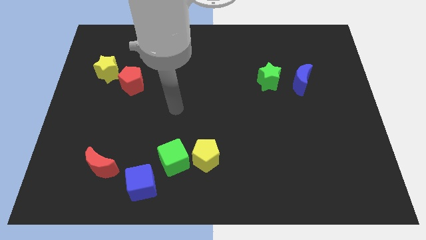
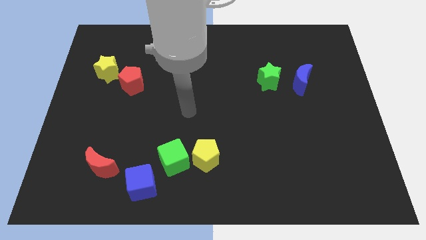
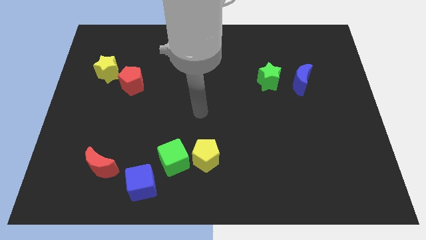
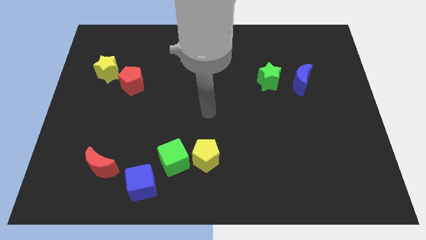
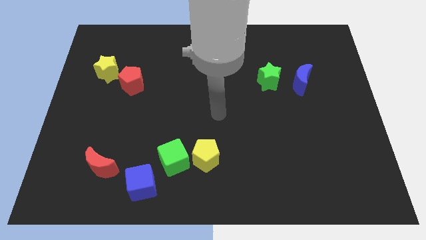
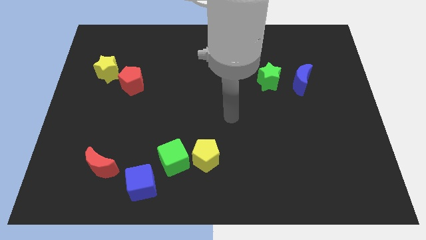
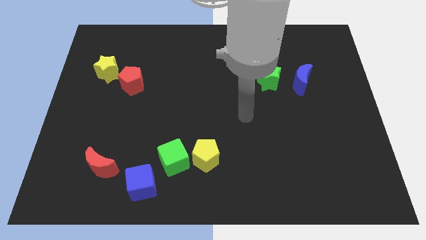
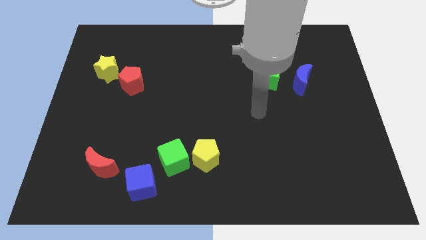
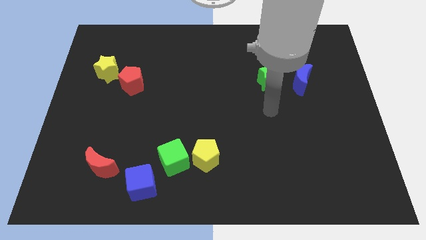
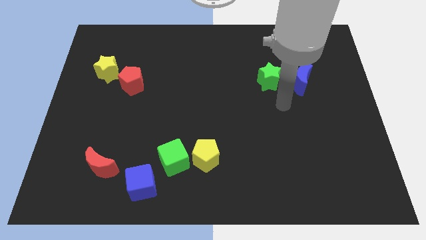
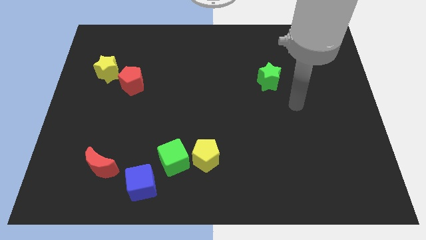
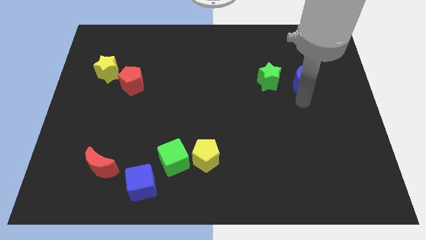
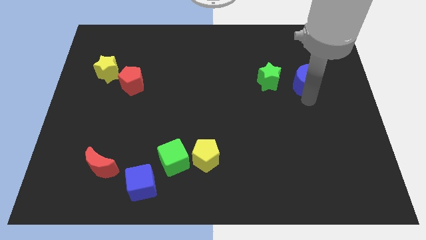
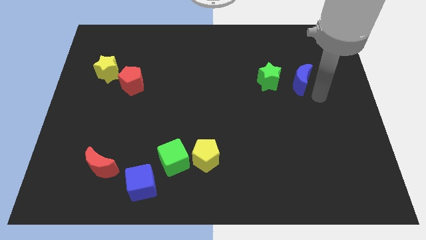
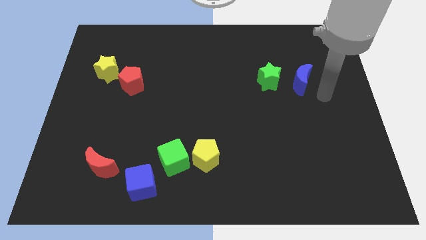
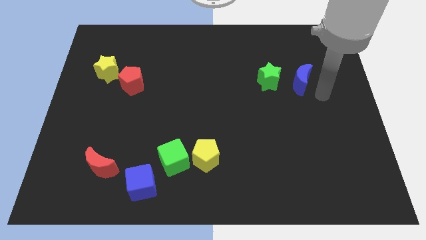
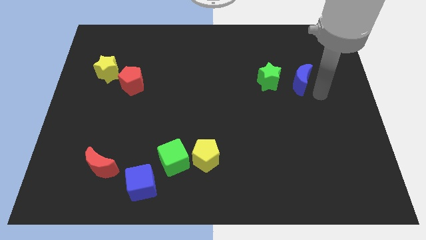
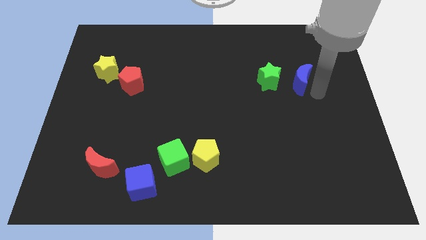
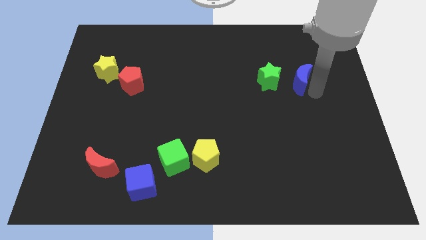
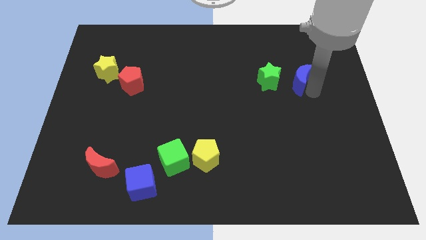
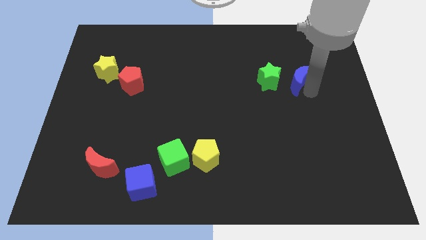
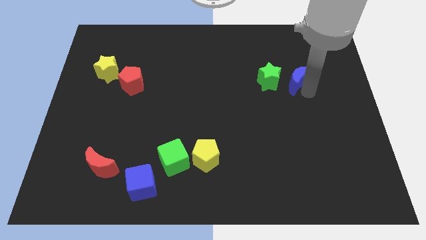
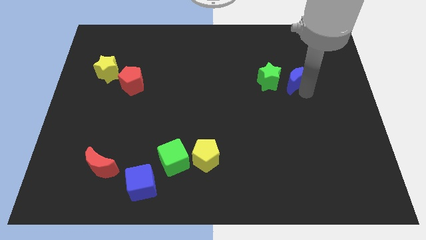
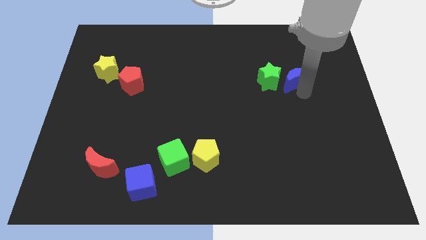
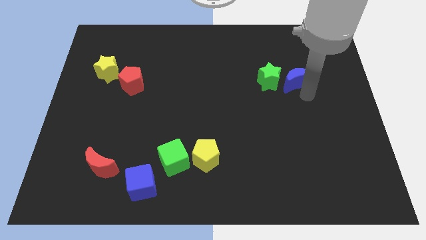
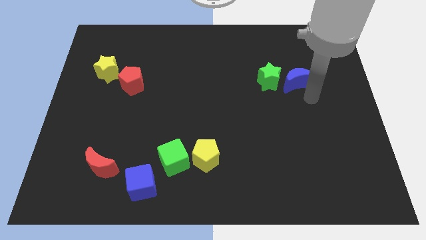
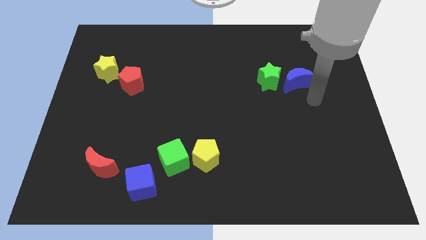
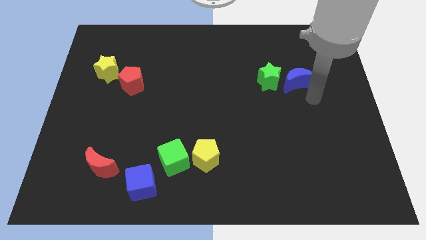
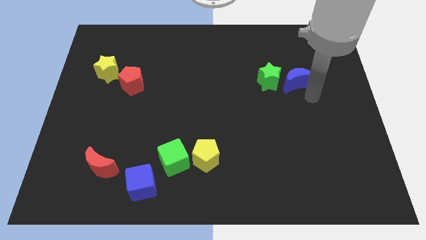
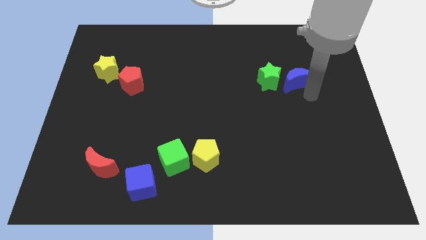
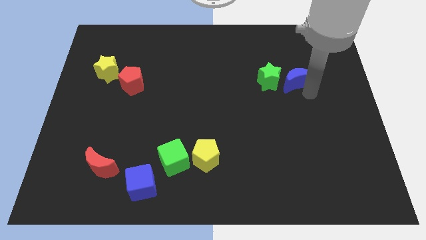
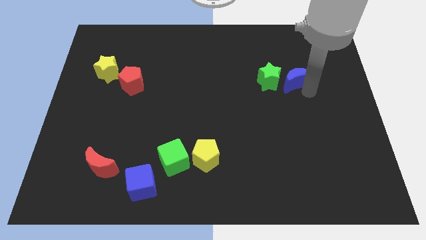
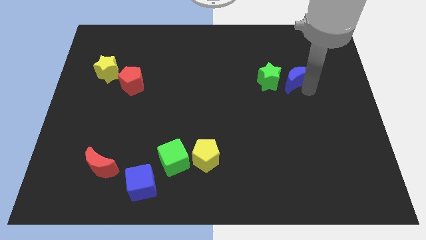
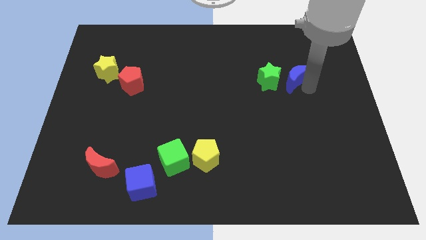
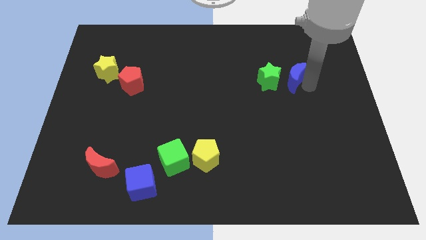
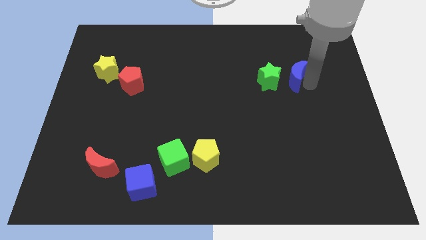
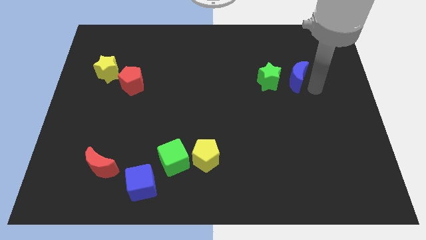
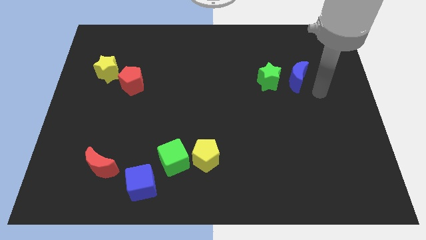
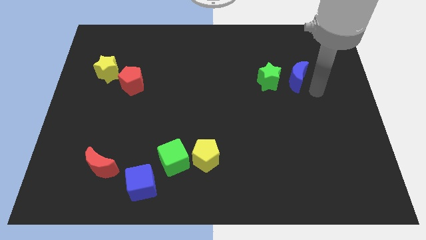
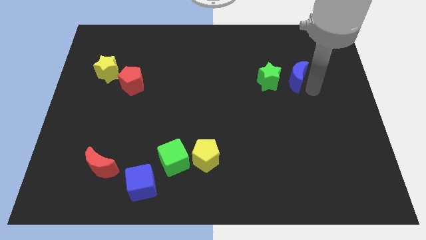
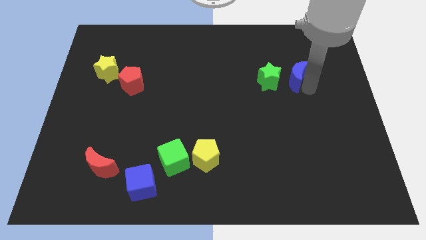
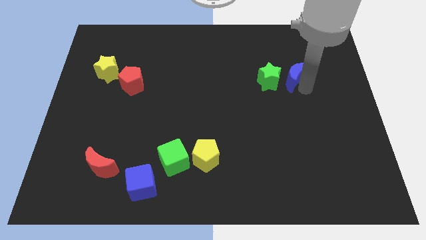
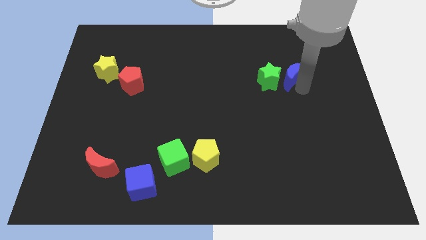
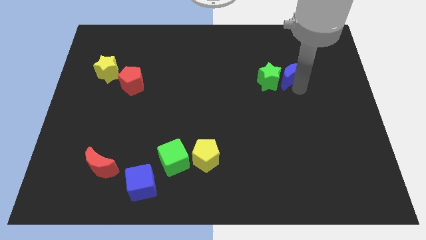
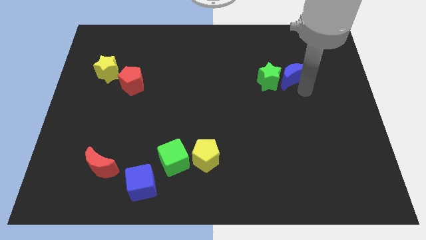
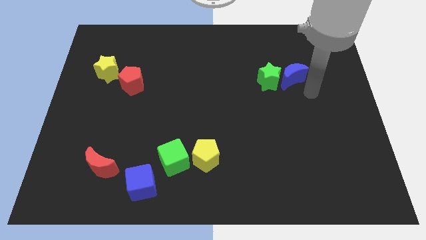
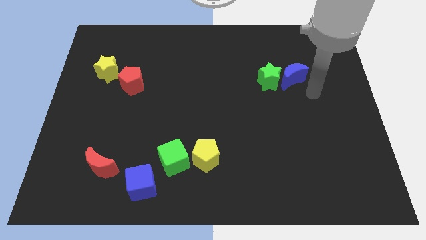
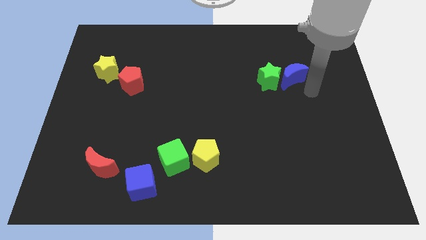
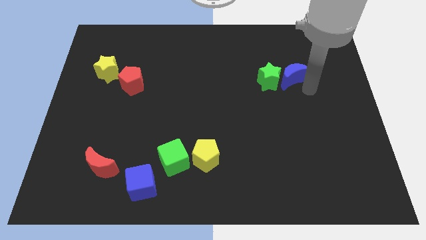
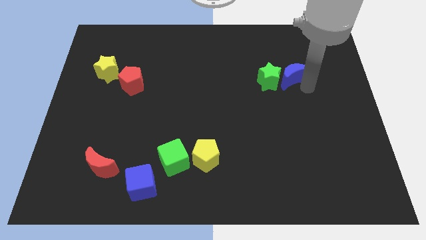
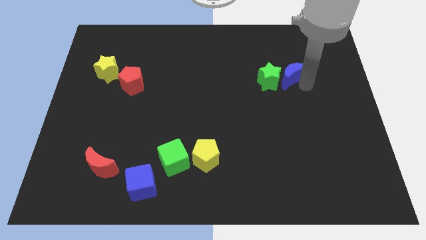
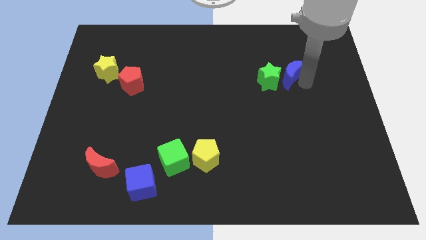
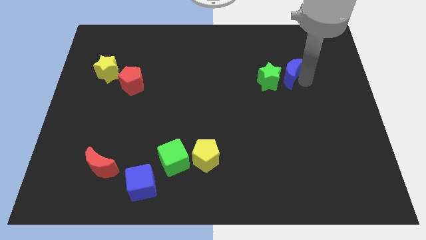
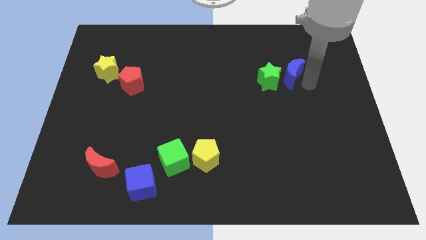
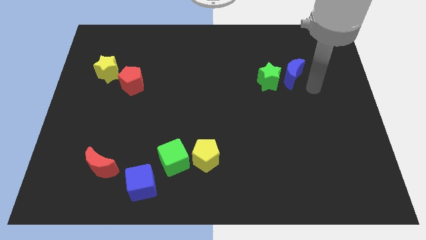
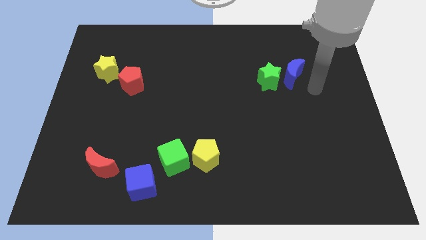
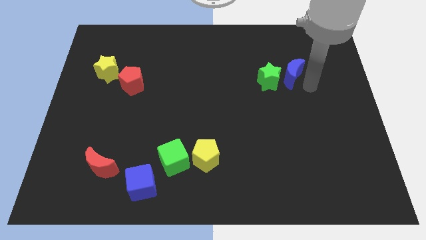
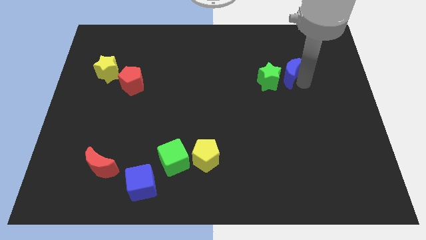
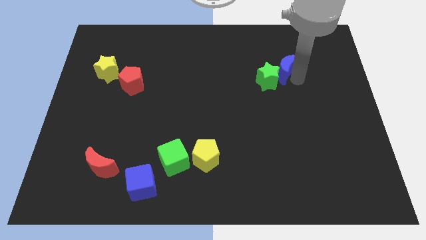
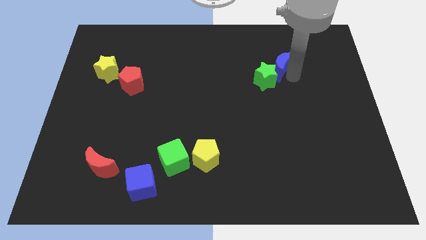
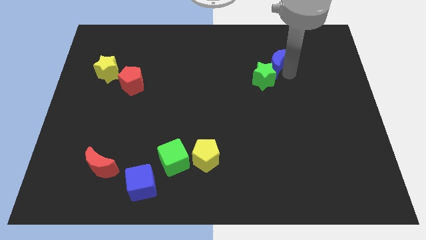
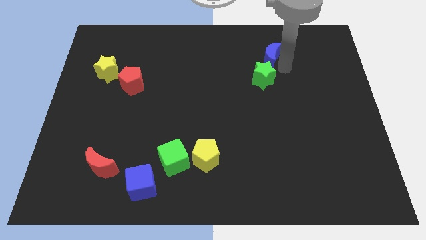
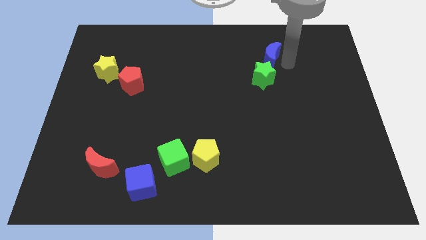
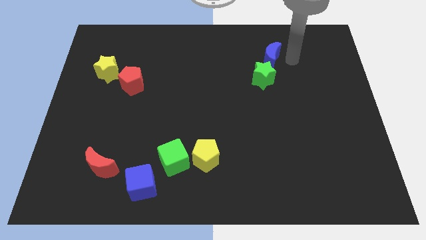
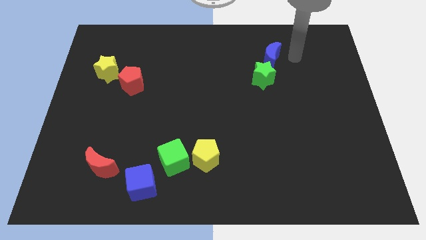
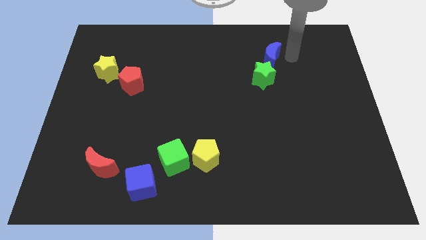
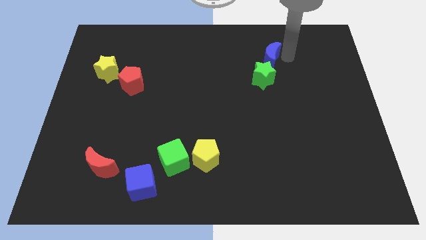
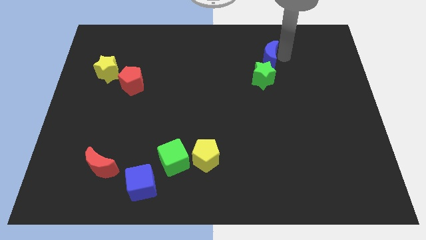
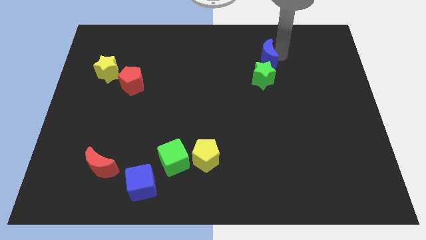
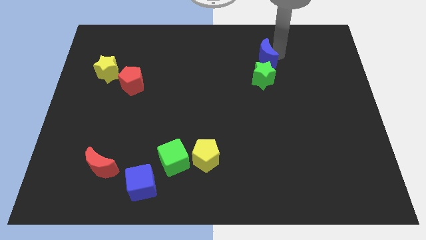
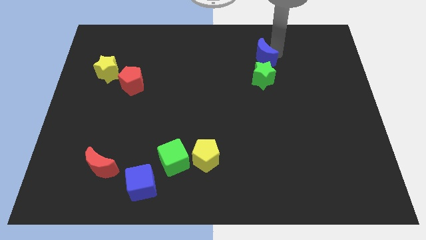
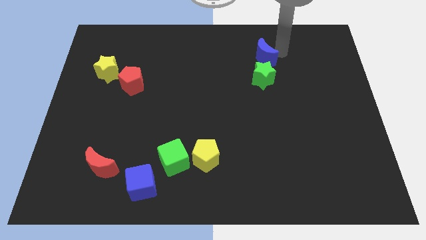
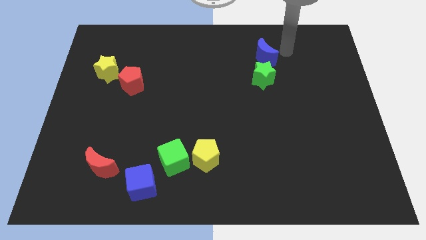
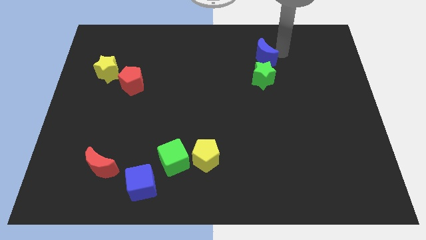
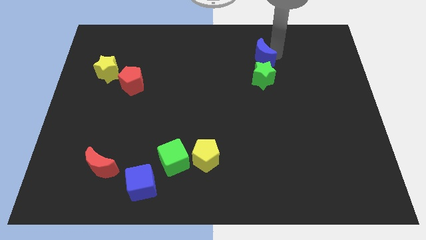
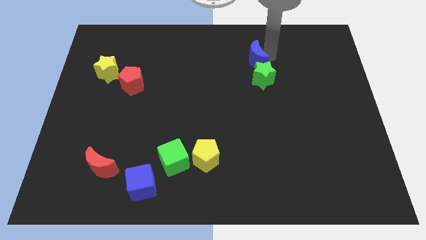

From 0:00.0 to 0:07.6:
push the blue moon diagonally up and to the left of the green star
